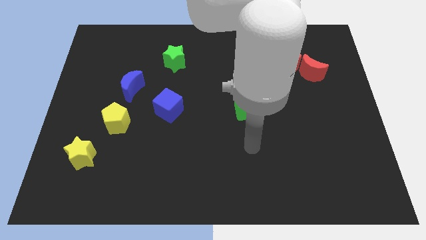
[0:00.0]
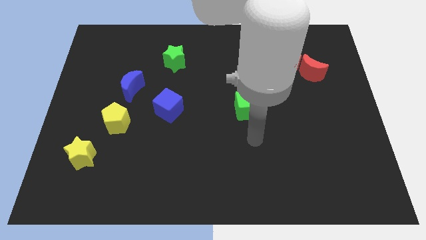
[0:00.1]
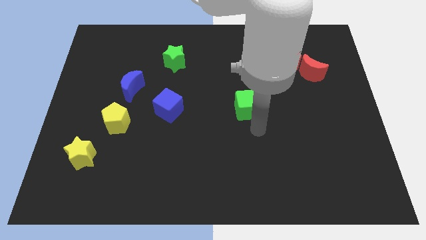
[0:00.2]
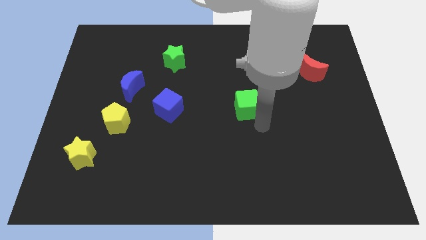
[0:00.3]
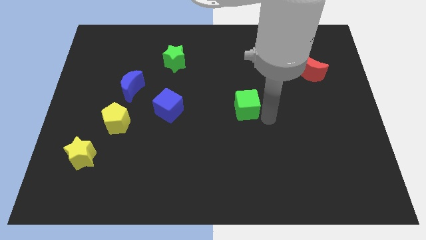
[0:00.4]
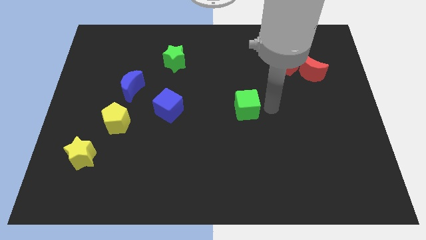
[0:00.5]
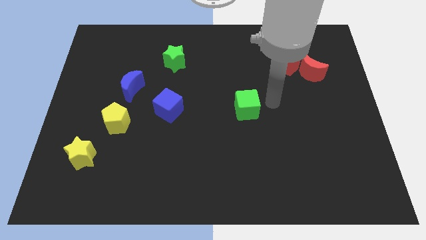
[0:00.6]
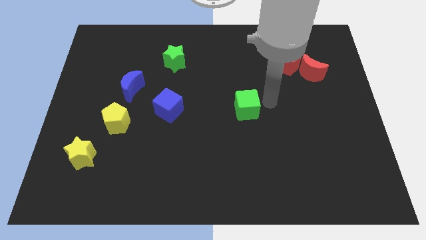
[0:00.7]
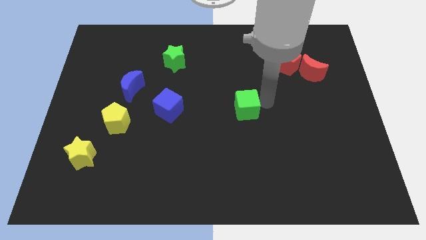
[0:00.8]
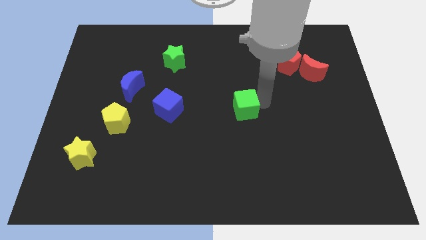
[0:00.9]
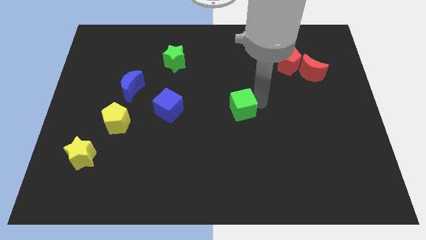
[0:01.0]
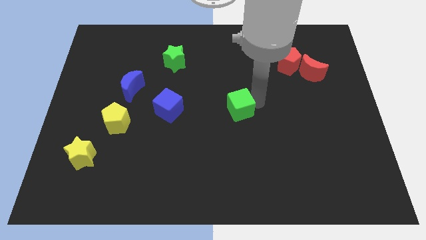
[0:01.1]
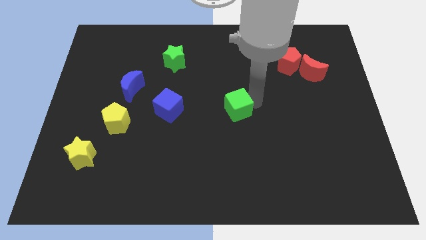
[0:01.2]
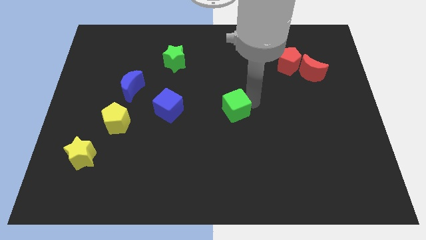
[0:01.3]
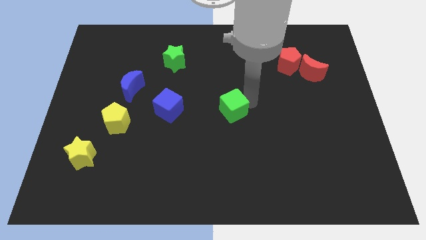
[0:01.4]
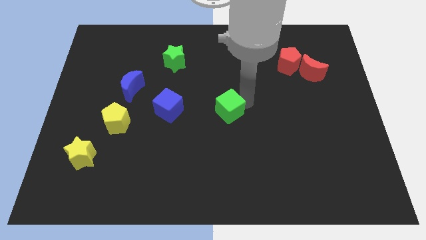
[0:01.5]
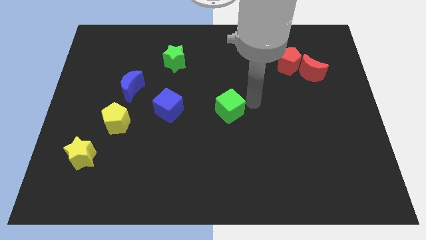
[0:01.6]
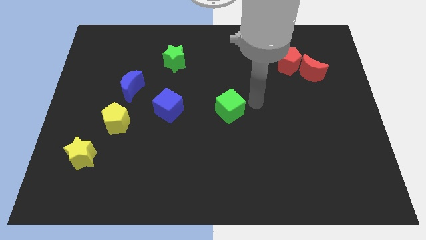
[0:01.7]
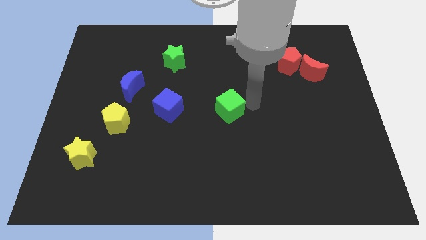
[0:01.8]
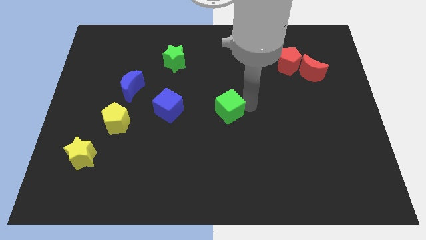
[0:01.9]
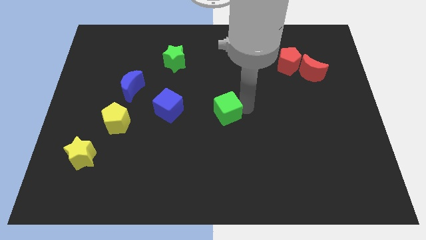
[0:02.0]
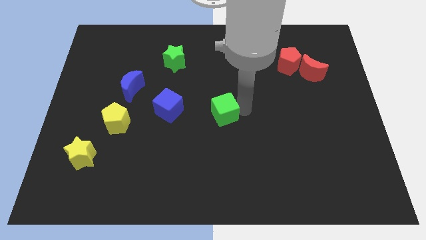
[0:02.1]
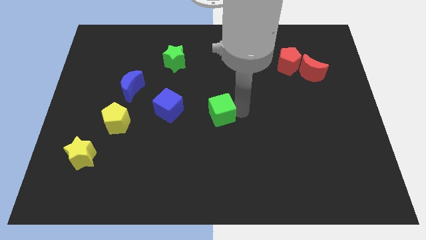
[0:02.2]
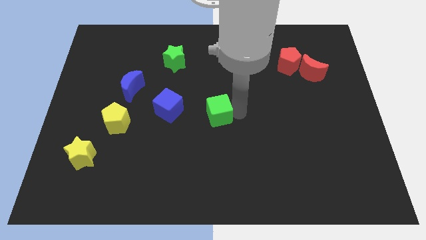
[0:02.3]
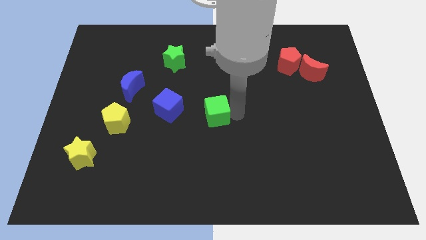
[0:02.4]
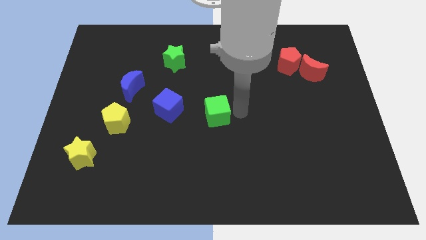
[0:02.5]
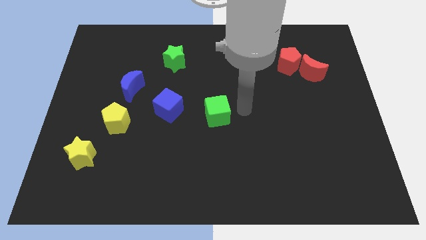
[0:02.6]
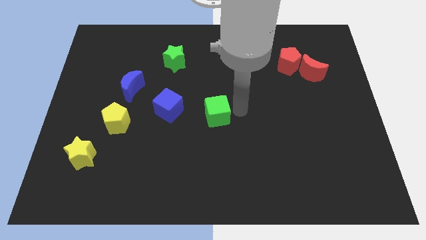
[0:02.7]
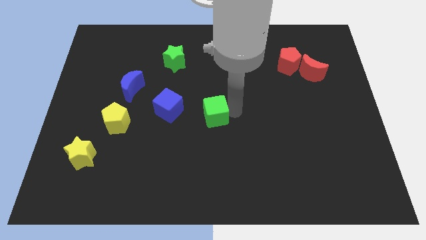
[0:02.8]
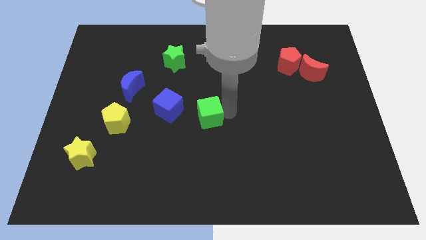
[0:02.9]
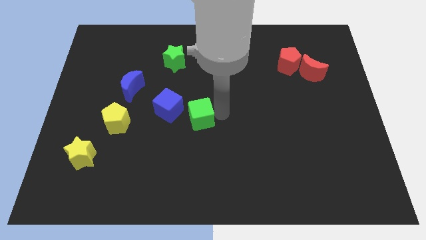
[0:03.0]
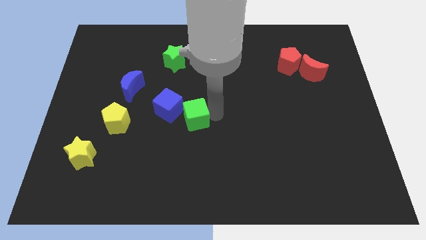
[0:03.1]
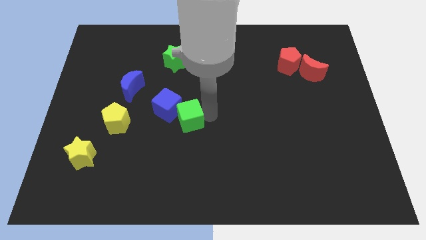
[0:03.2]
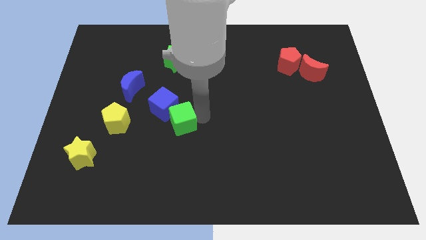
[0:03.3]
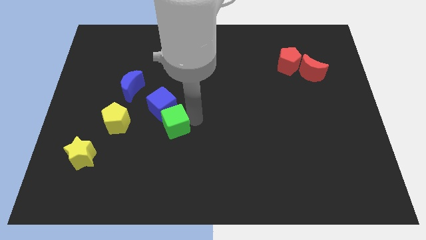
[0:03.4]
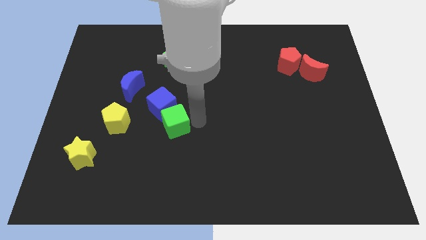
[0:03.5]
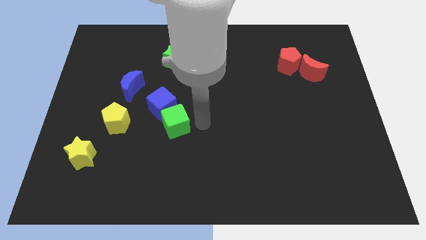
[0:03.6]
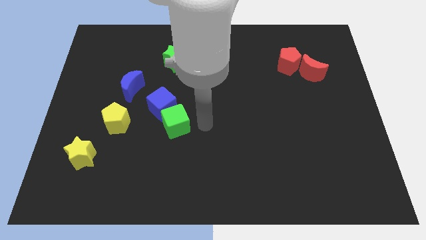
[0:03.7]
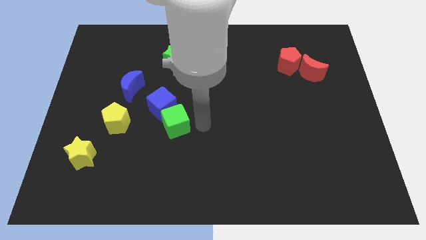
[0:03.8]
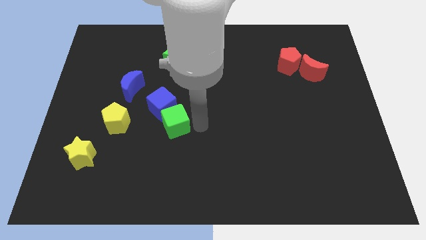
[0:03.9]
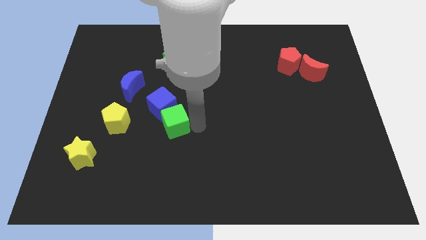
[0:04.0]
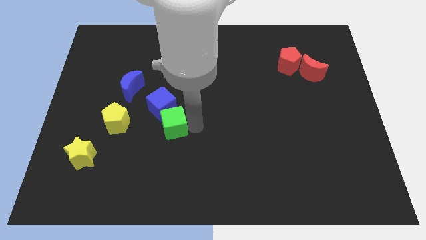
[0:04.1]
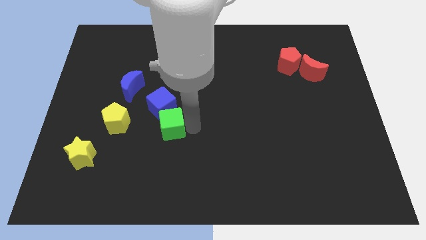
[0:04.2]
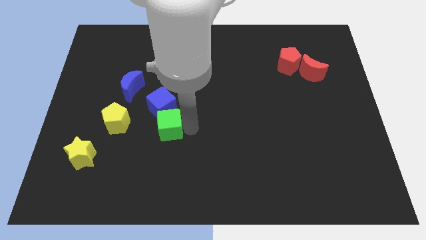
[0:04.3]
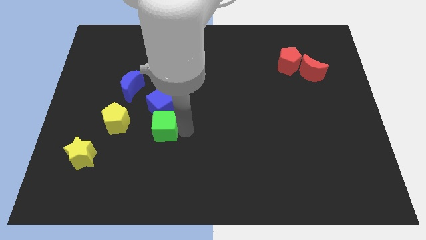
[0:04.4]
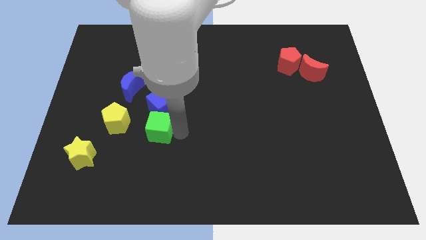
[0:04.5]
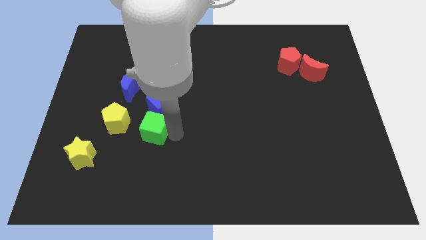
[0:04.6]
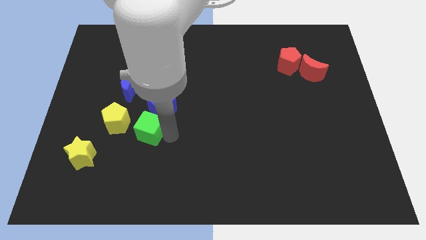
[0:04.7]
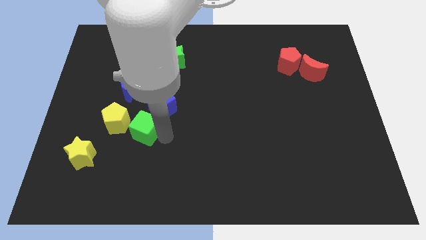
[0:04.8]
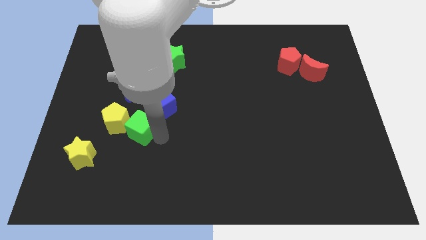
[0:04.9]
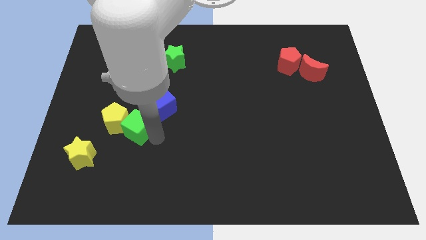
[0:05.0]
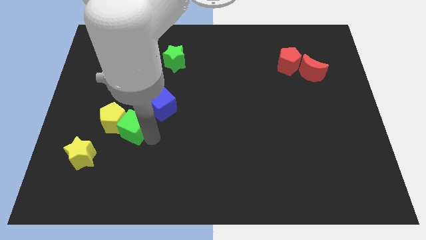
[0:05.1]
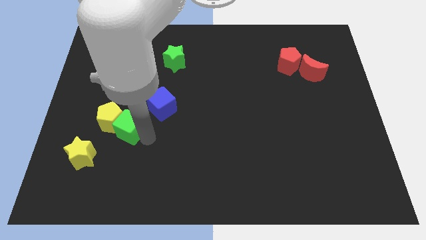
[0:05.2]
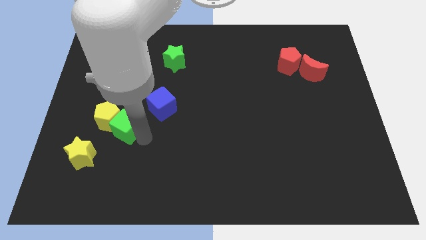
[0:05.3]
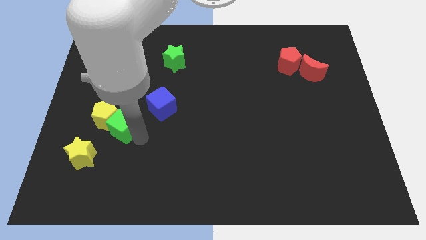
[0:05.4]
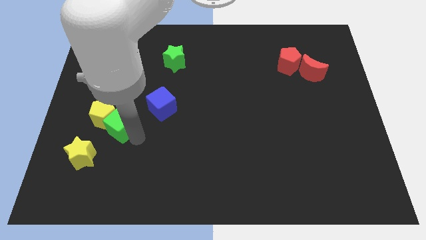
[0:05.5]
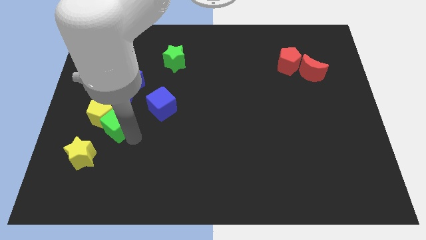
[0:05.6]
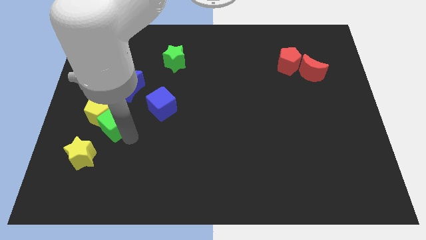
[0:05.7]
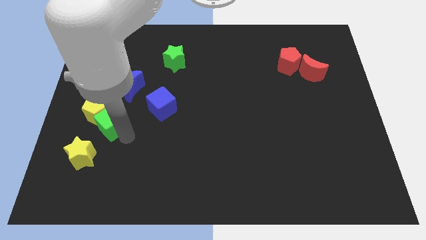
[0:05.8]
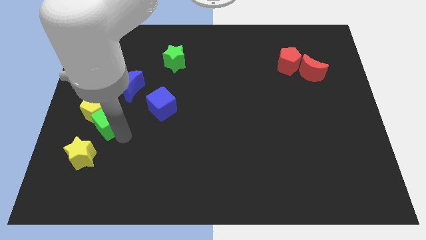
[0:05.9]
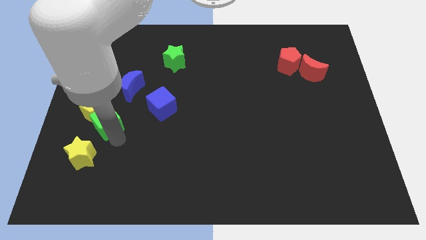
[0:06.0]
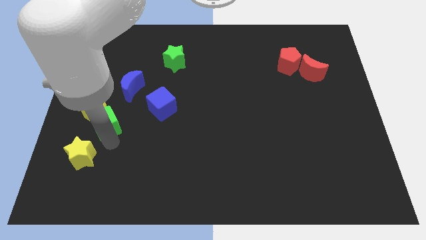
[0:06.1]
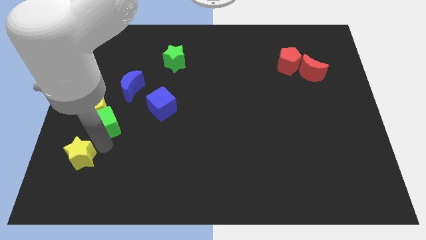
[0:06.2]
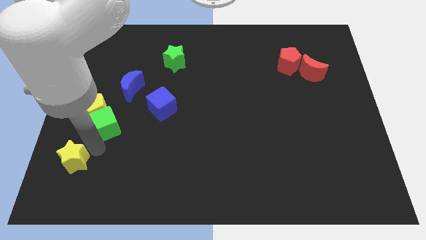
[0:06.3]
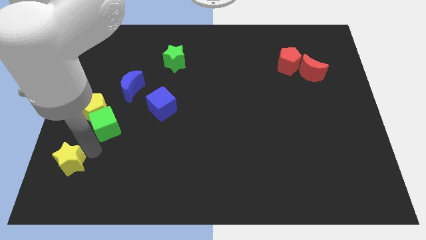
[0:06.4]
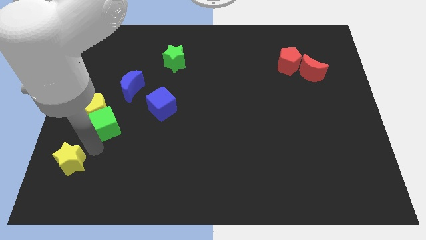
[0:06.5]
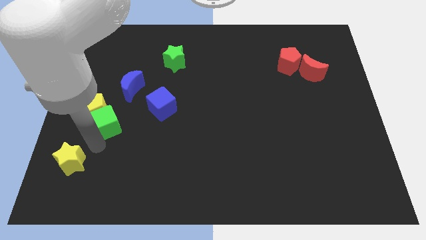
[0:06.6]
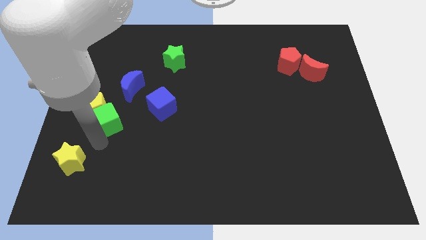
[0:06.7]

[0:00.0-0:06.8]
move the green cube to the left side of the blue cube

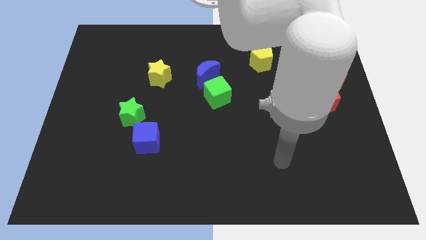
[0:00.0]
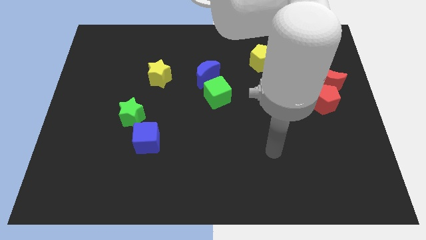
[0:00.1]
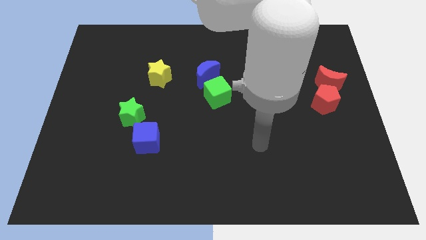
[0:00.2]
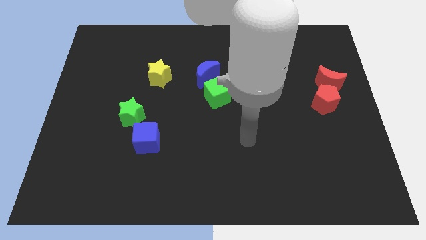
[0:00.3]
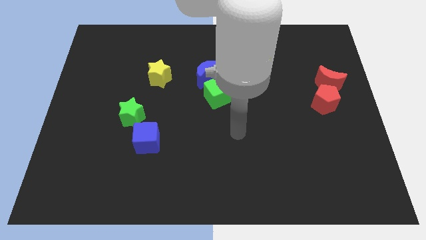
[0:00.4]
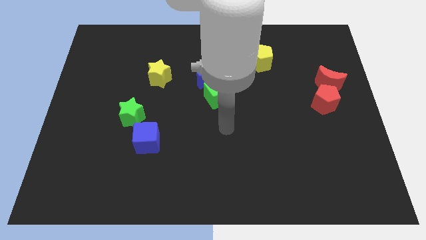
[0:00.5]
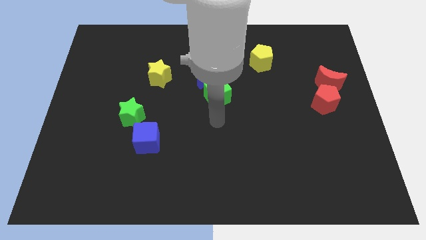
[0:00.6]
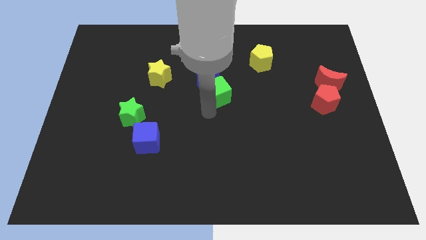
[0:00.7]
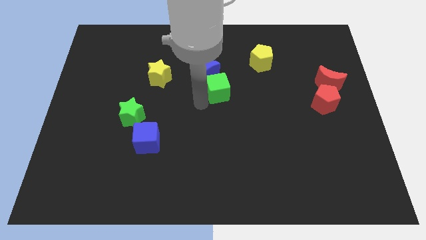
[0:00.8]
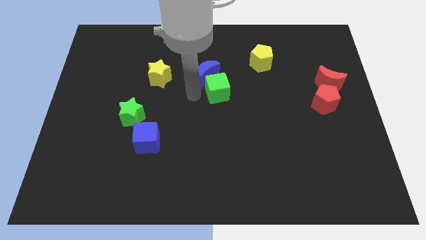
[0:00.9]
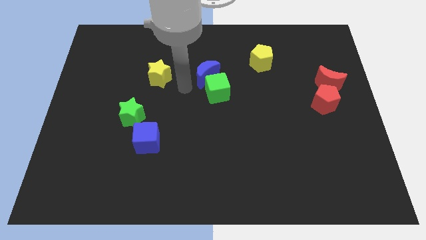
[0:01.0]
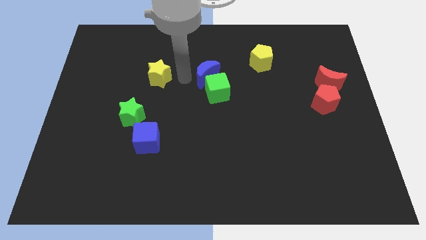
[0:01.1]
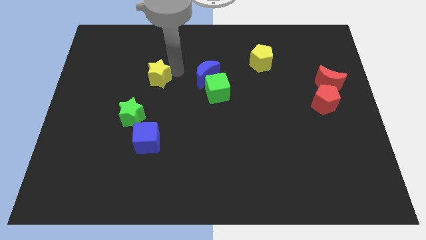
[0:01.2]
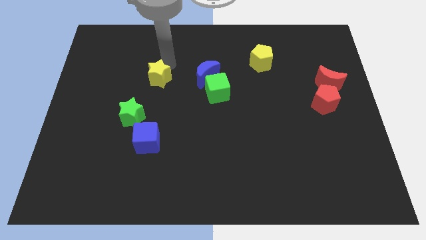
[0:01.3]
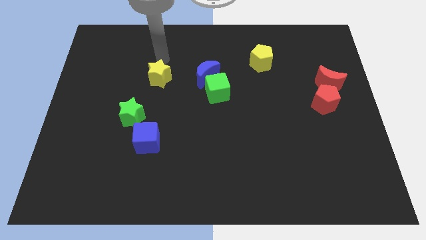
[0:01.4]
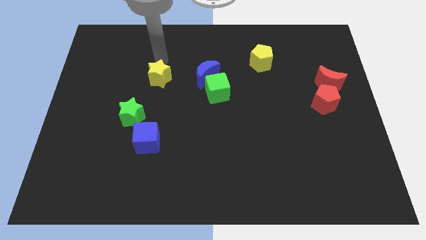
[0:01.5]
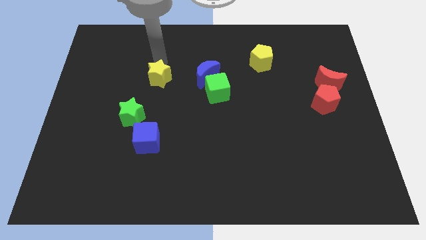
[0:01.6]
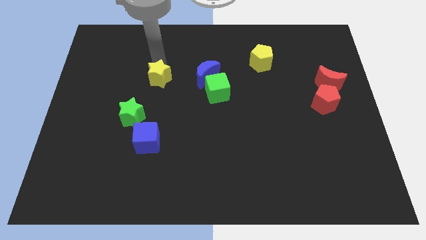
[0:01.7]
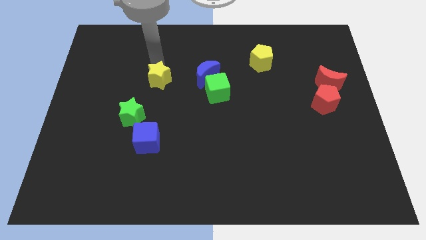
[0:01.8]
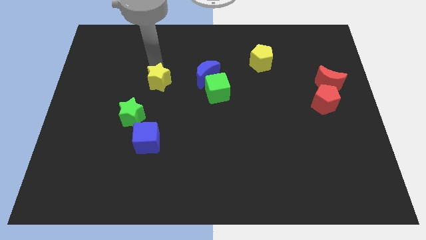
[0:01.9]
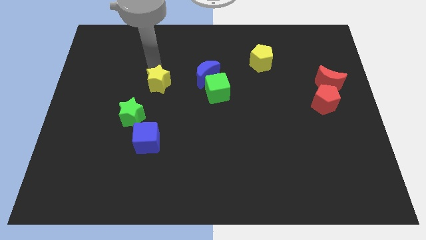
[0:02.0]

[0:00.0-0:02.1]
push the yellow star to the top right of the green star
